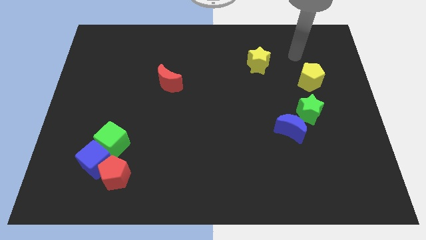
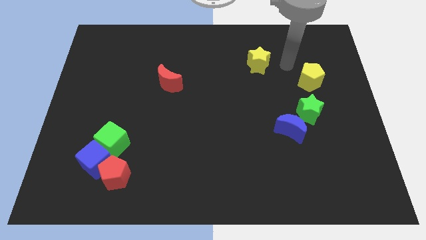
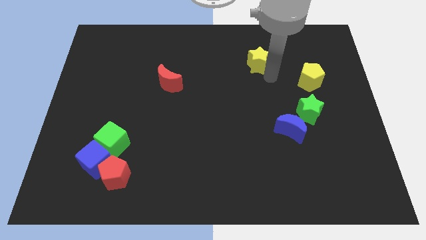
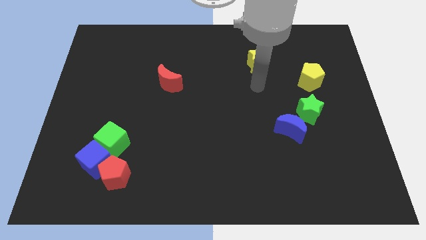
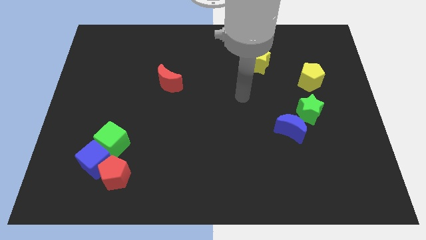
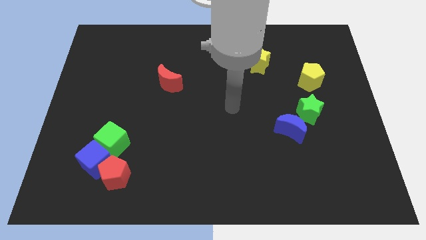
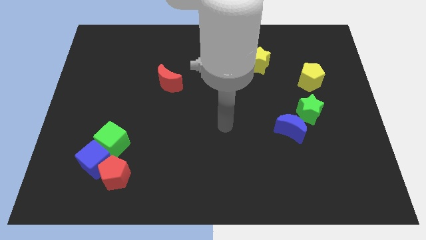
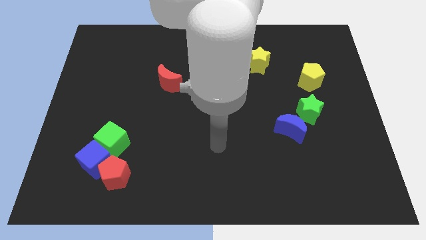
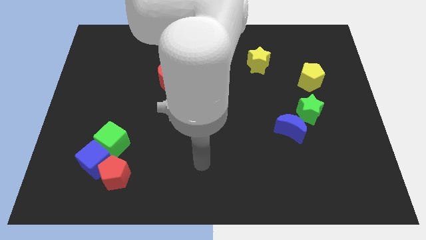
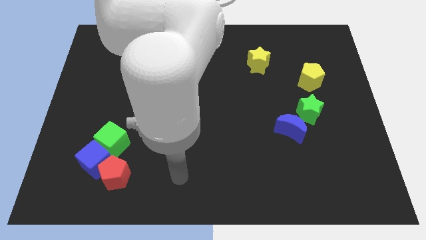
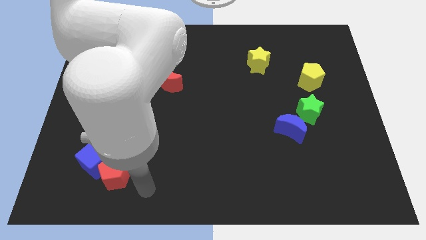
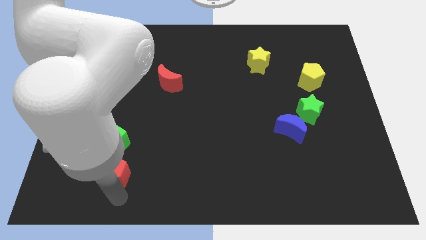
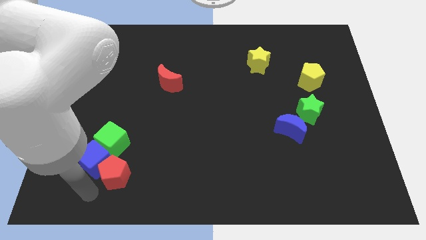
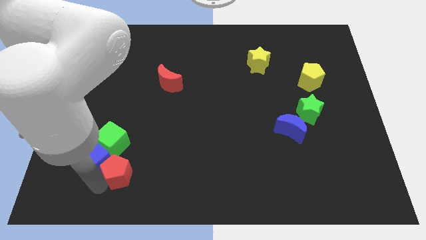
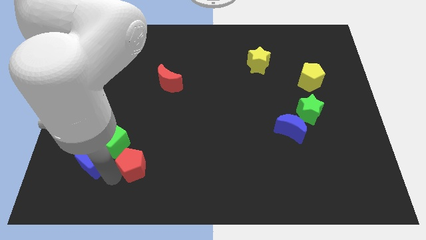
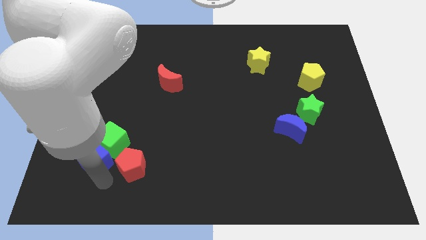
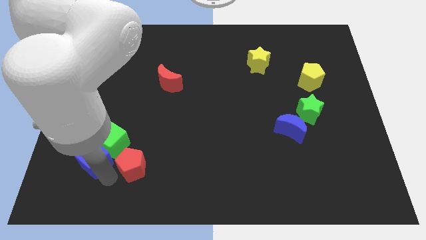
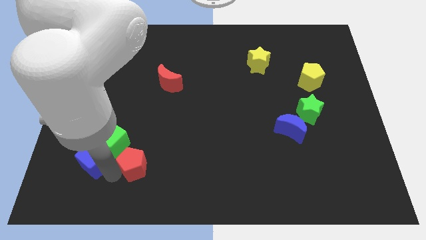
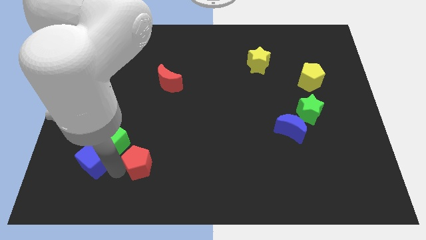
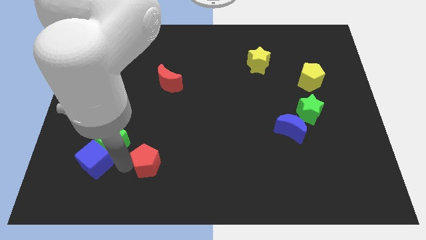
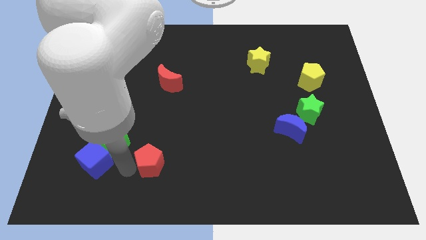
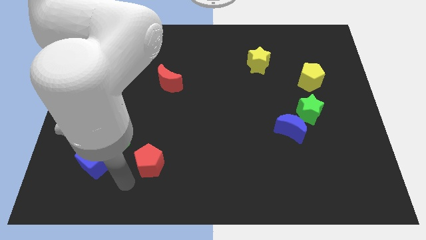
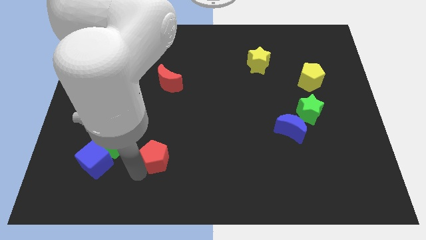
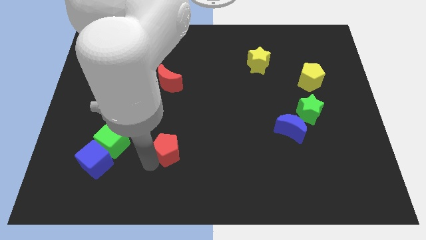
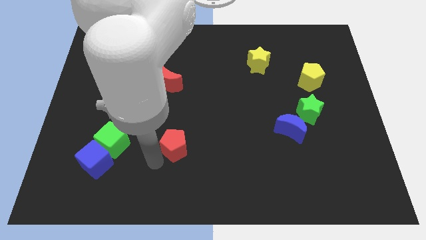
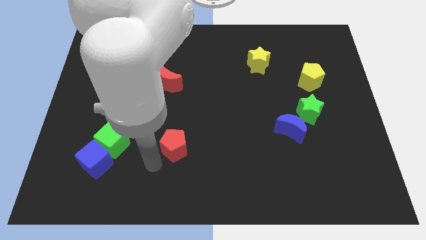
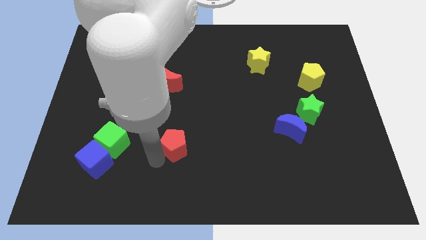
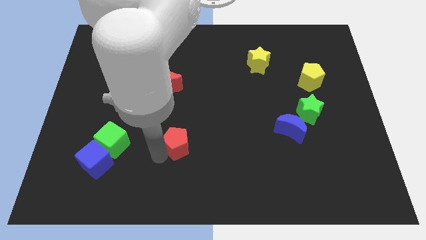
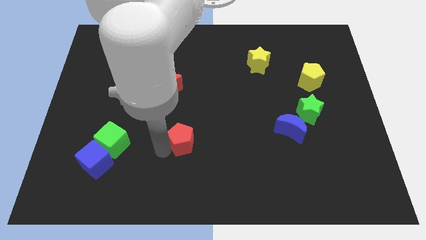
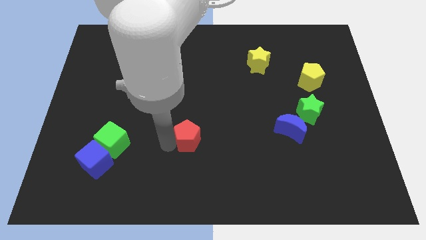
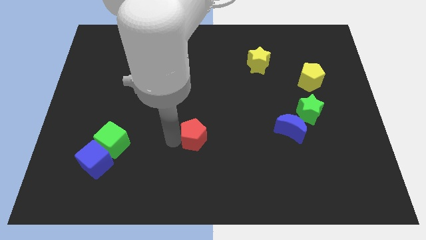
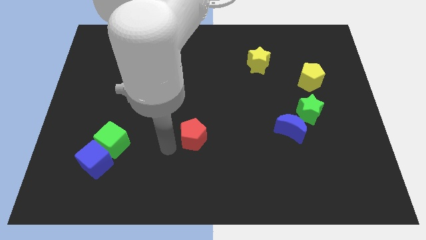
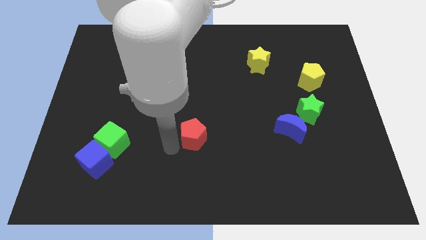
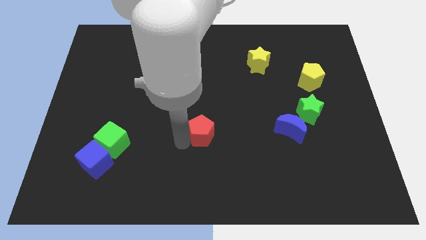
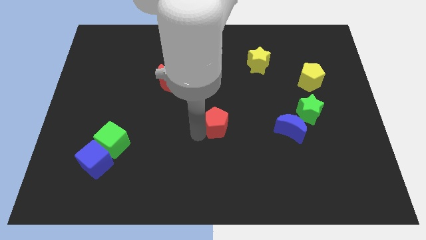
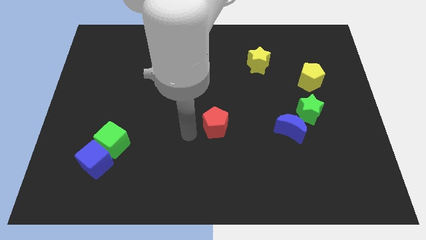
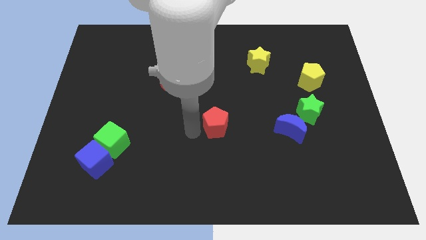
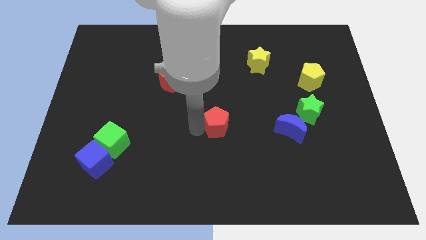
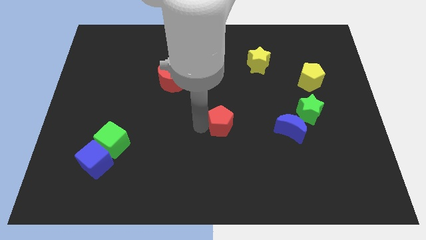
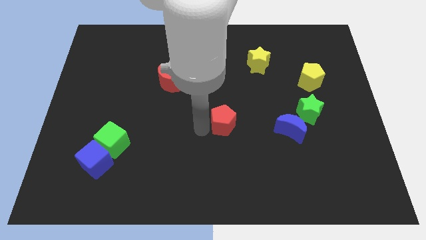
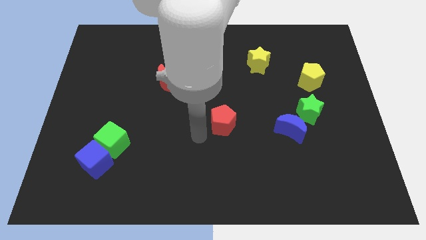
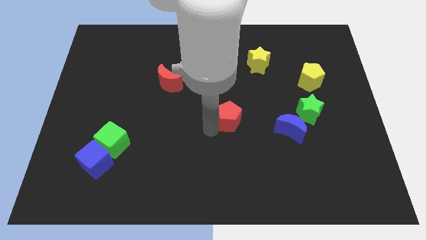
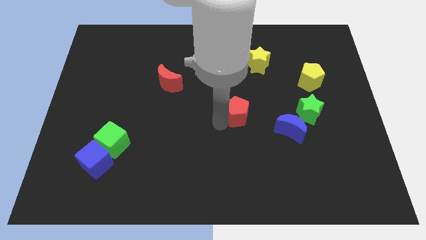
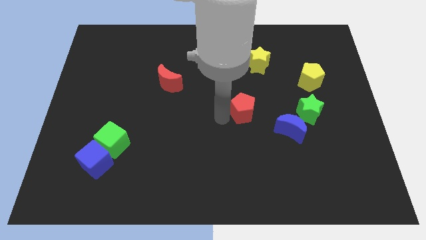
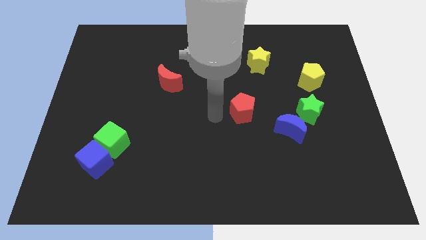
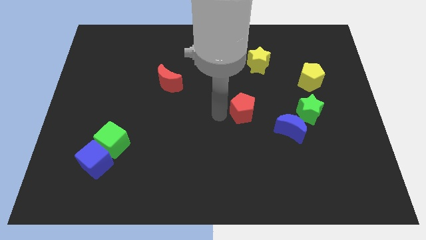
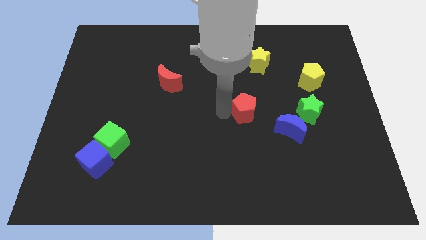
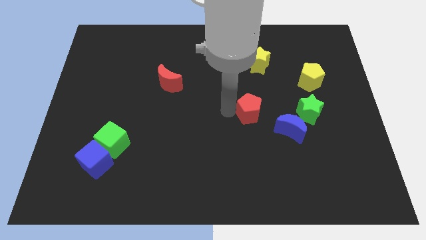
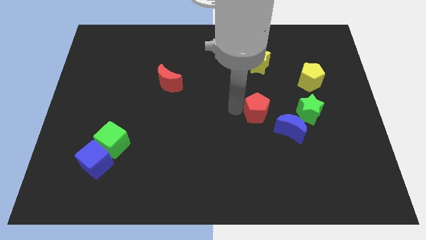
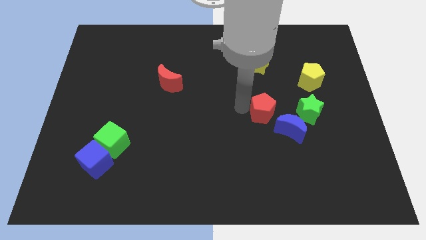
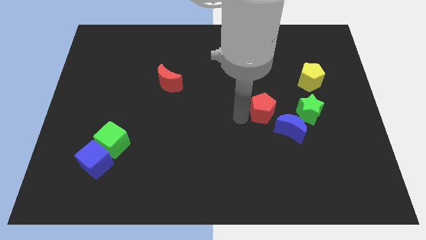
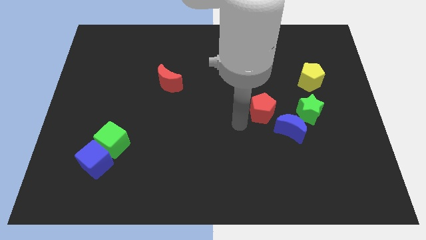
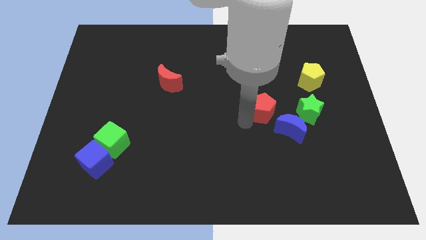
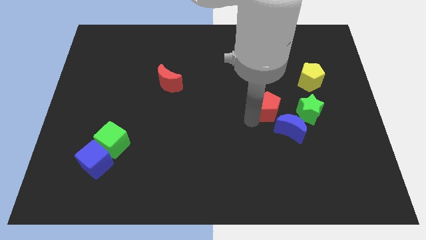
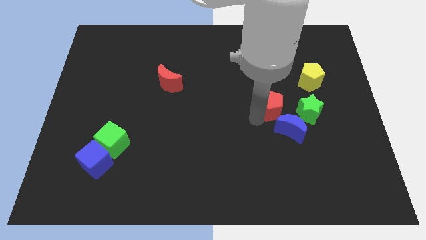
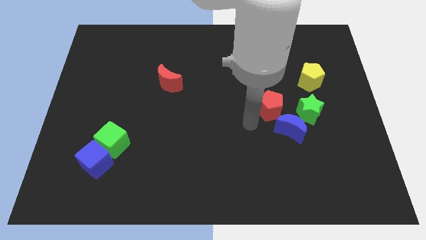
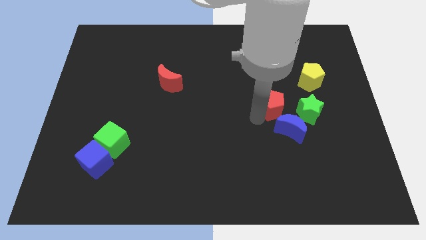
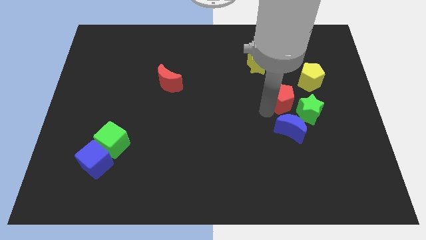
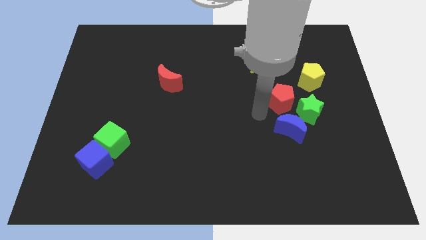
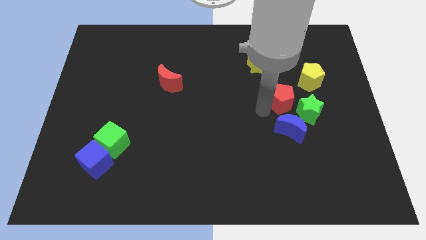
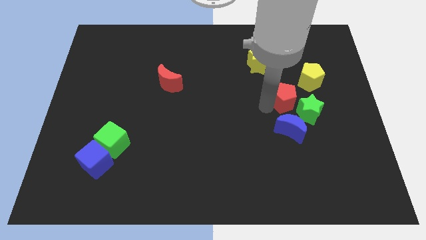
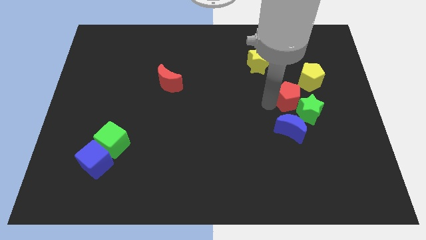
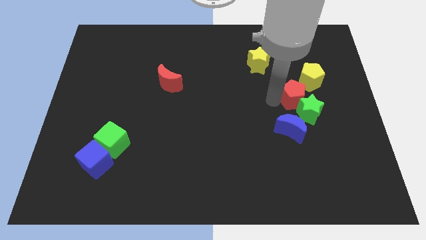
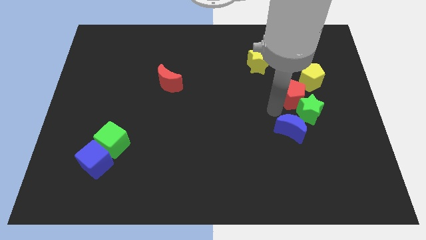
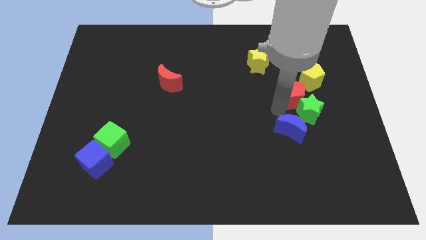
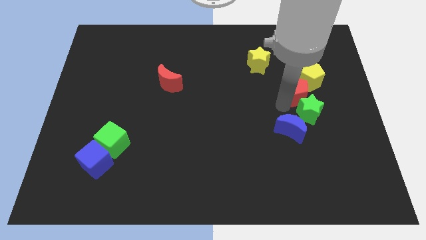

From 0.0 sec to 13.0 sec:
move the red pentagon towards the yellow pentagon
